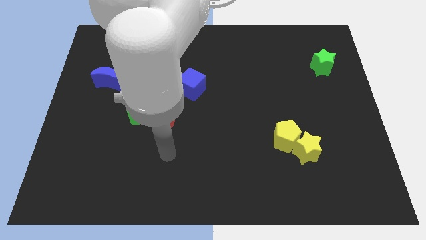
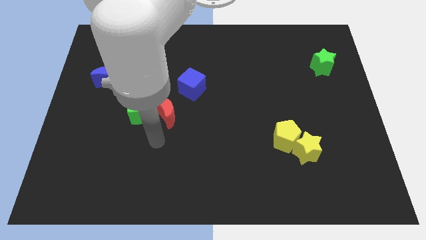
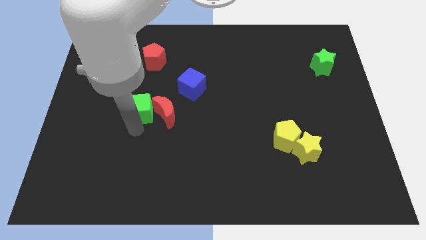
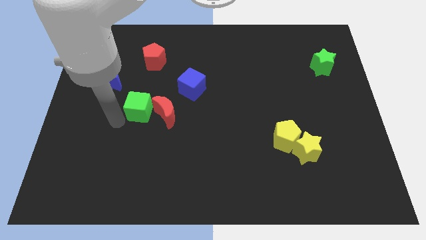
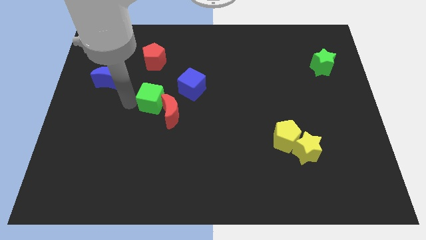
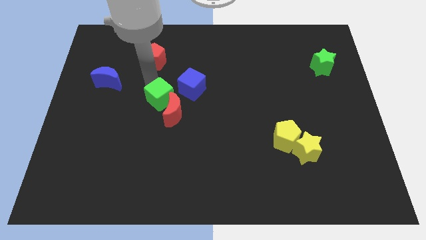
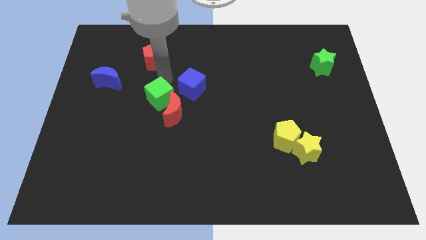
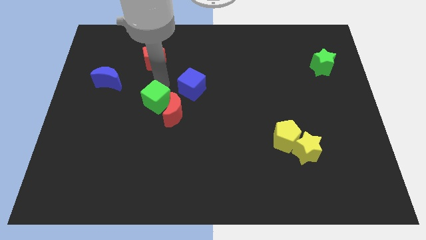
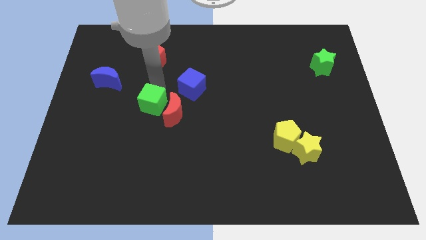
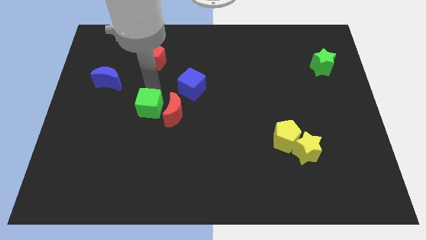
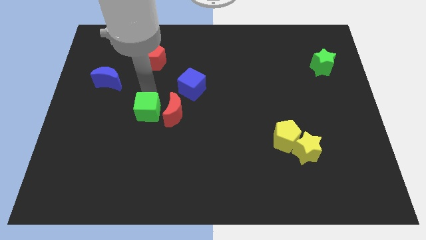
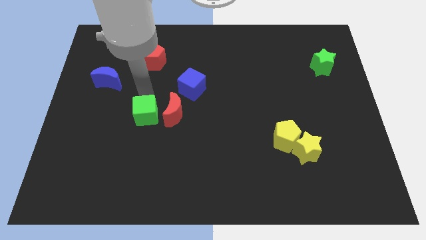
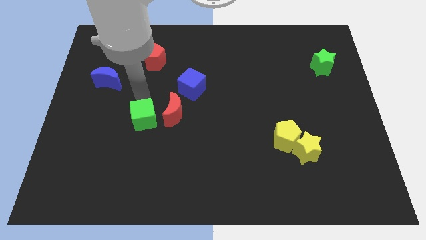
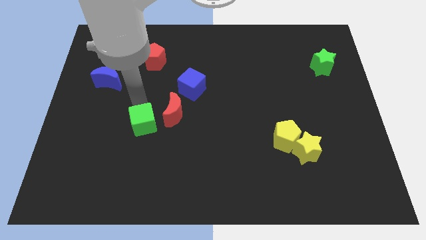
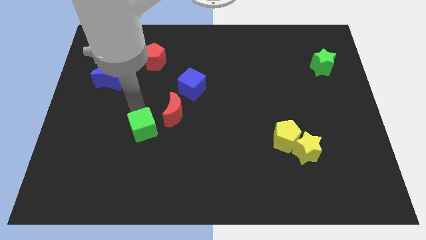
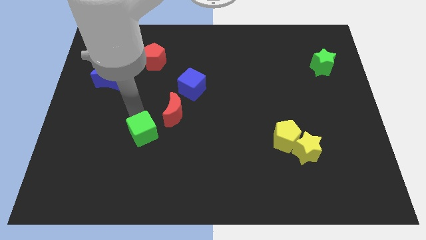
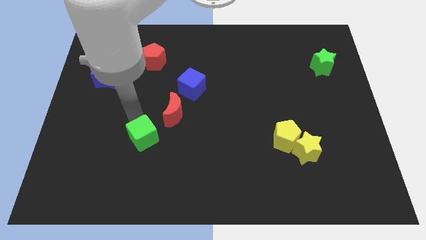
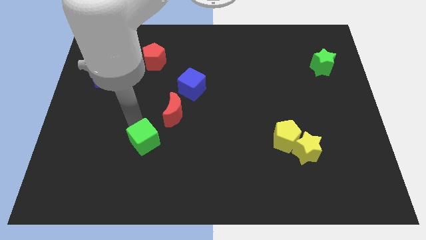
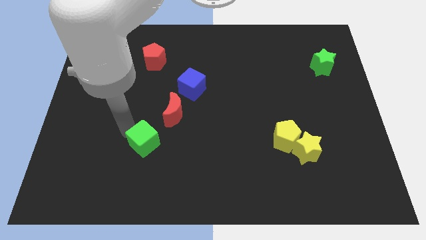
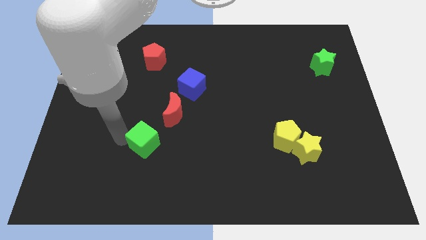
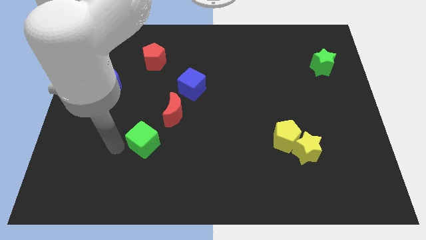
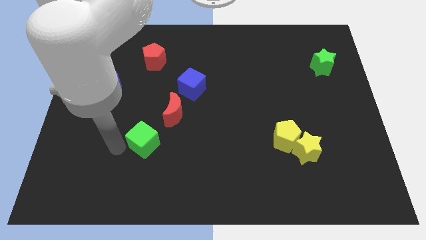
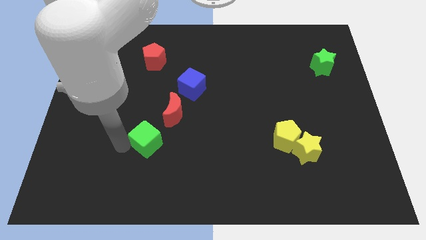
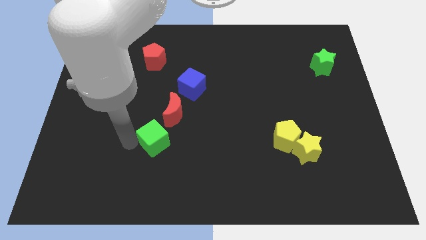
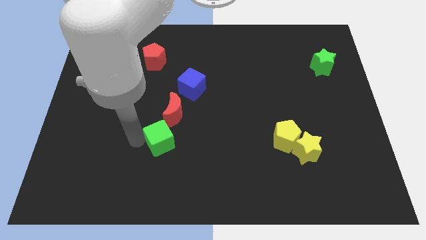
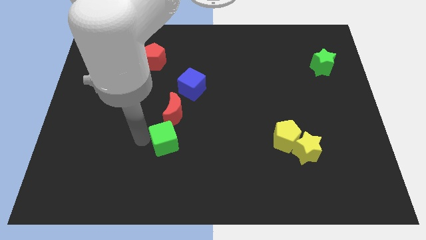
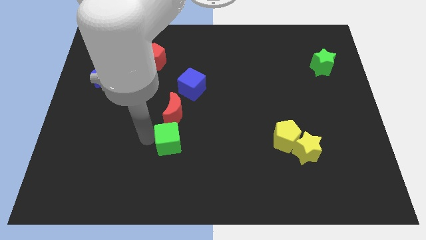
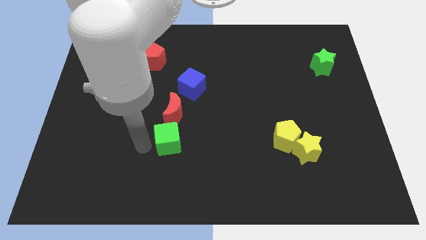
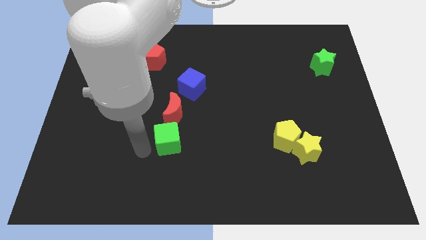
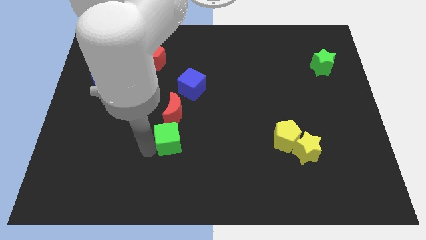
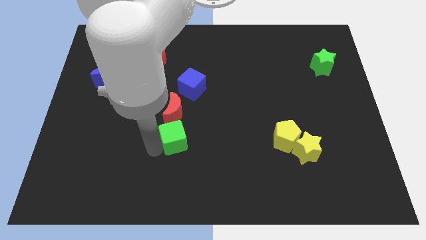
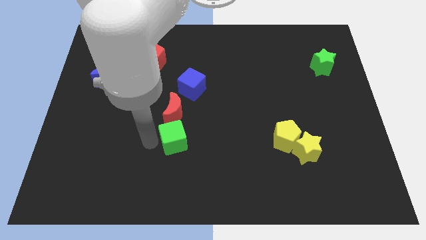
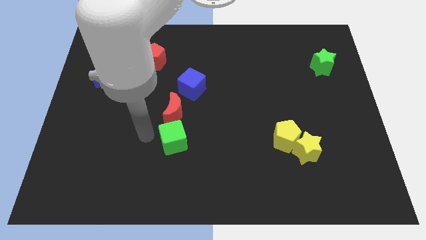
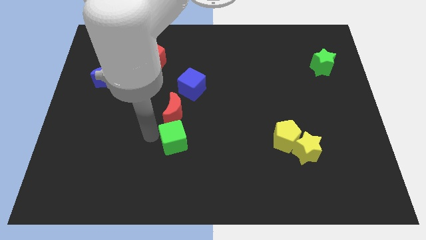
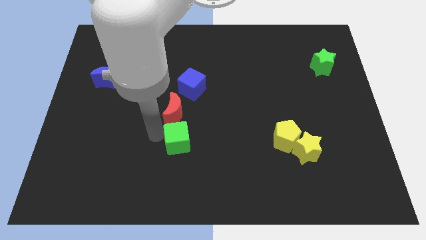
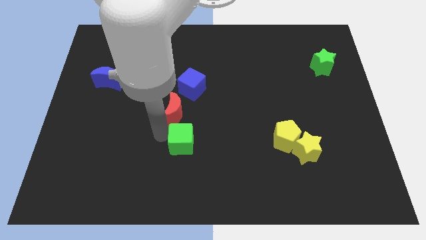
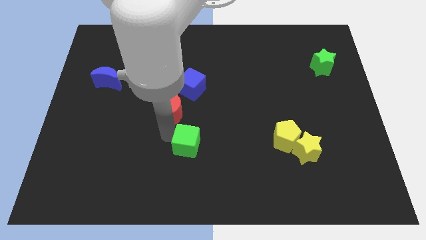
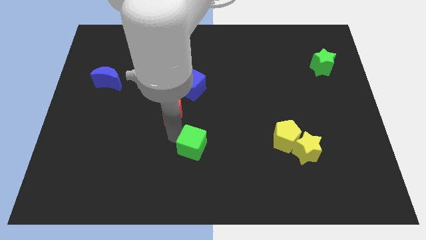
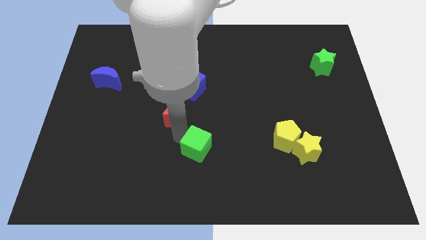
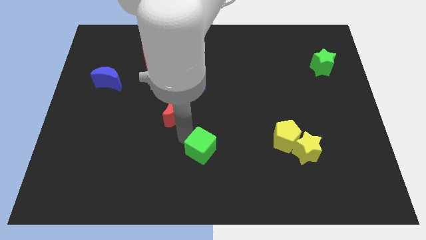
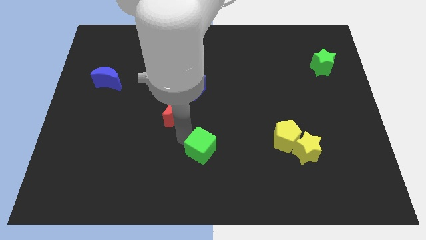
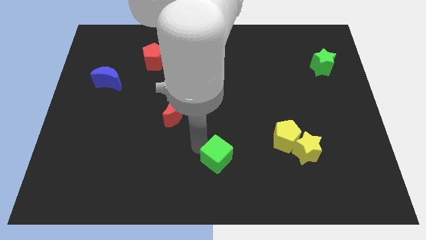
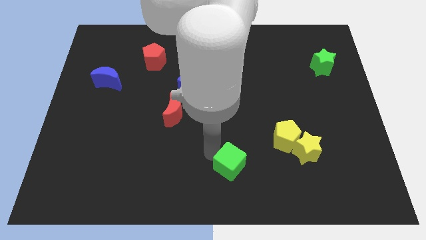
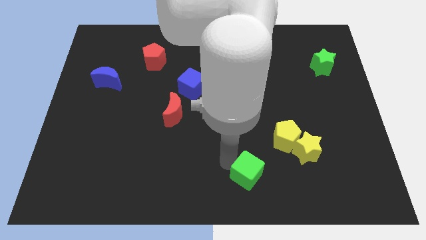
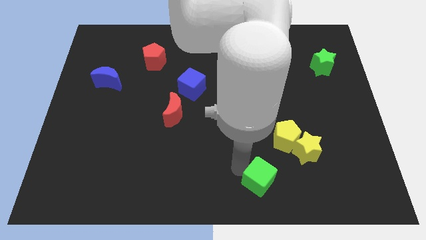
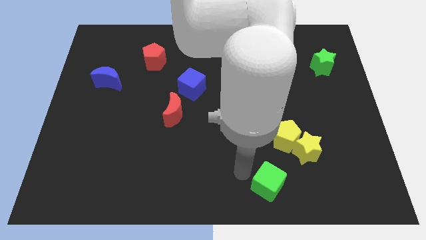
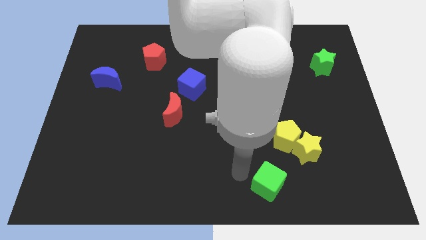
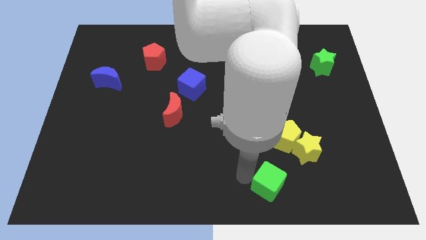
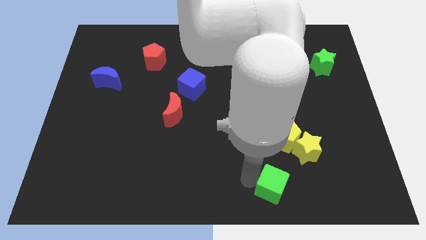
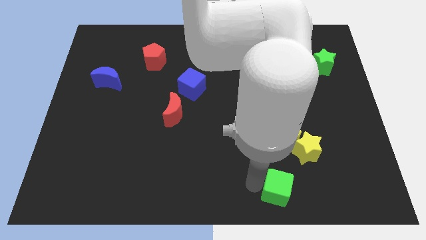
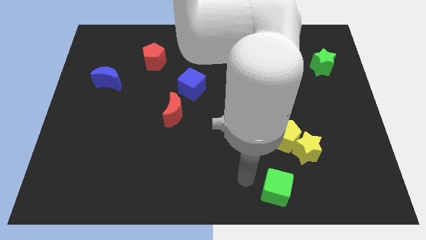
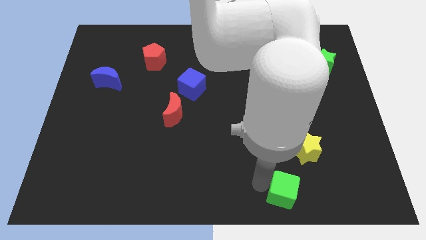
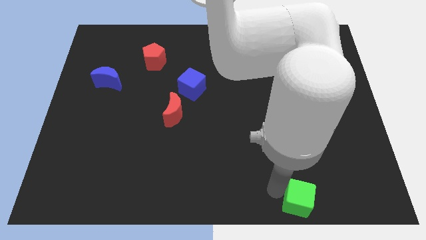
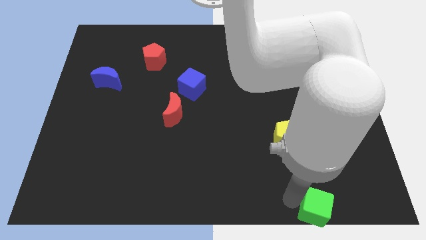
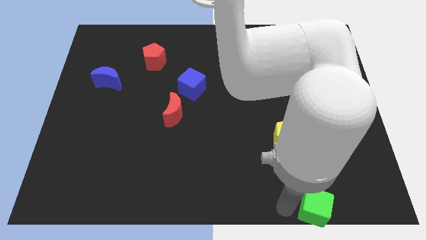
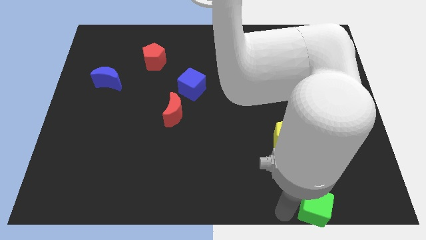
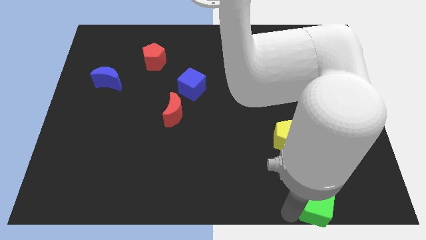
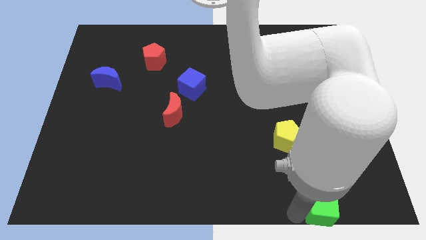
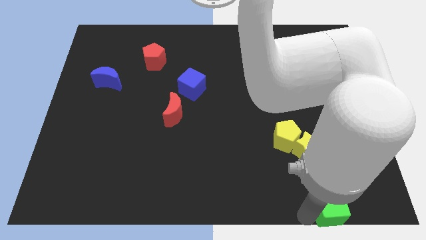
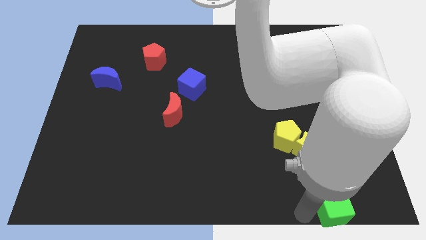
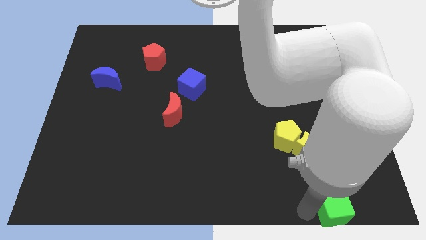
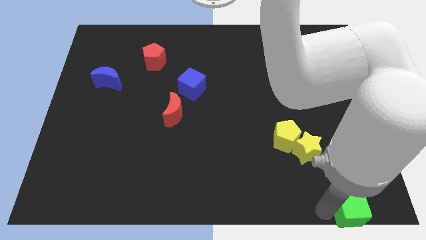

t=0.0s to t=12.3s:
slide the green cube to the bottom right corner

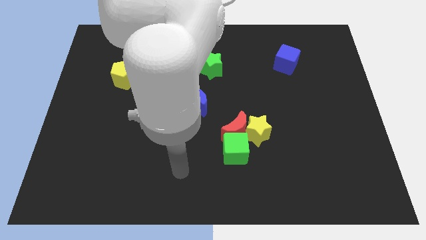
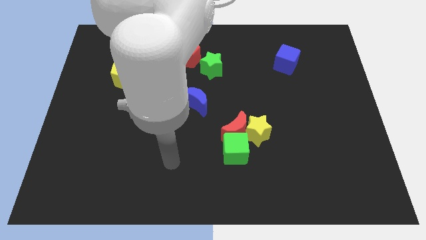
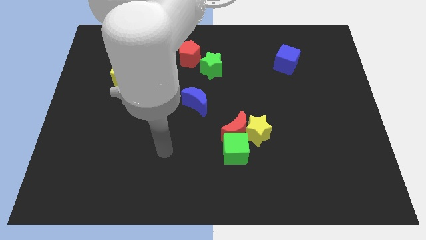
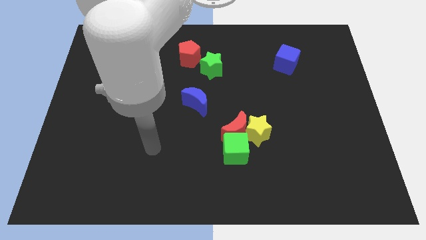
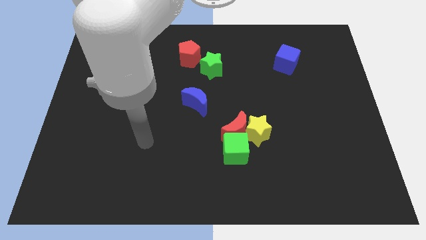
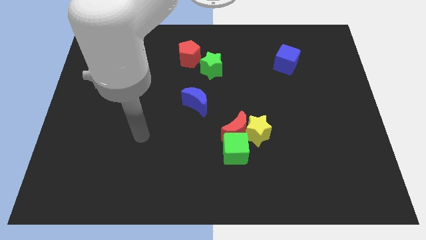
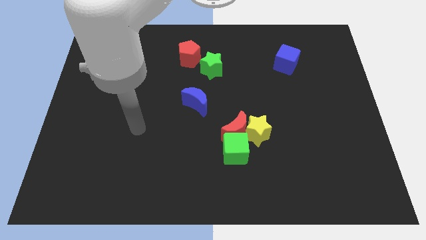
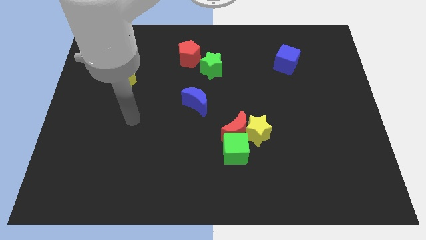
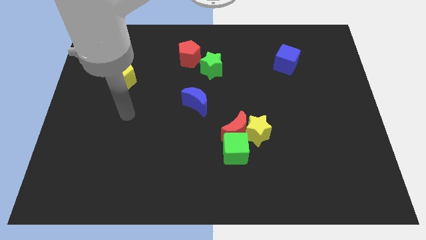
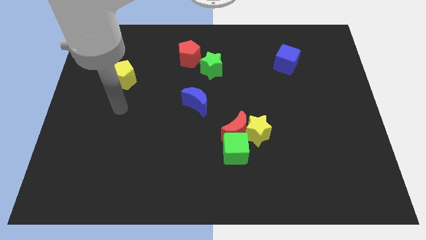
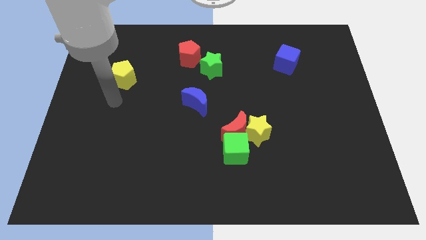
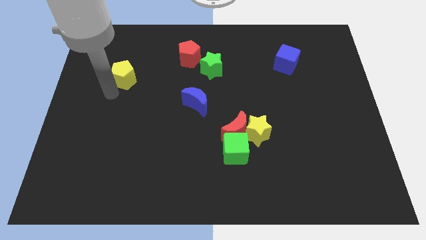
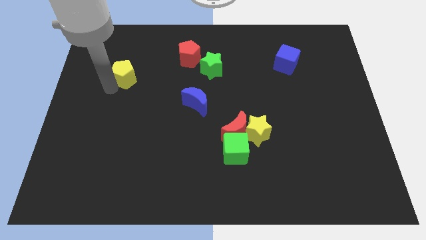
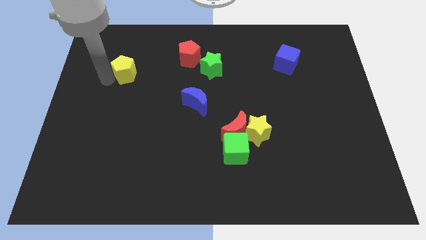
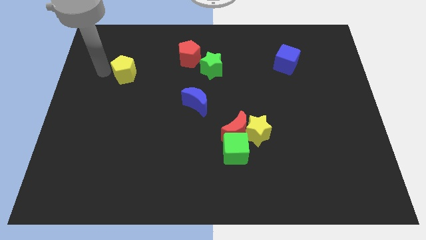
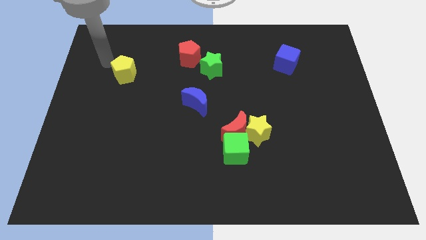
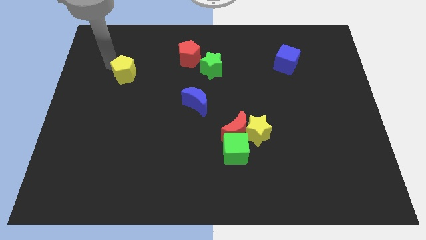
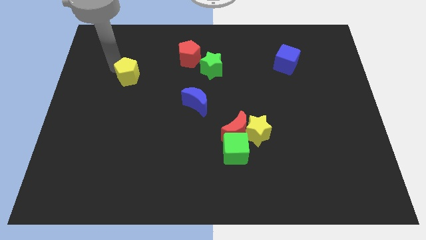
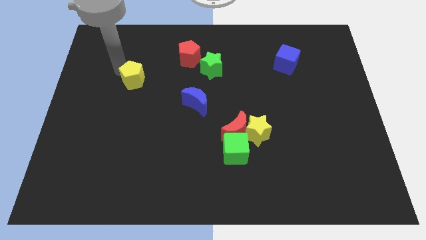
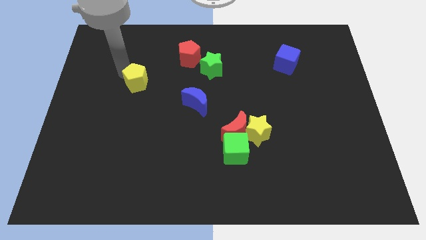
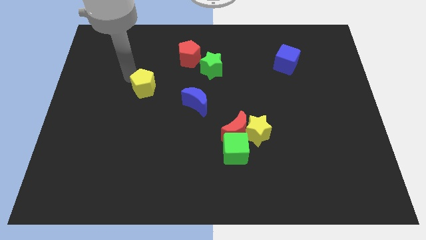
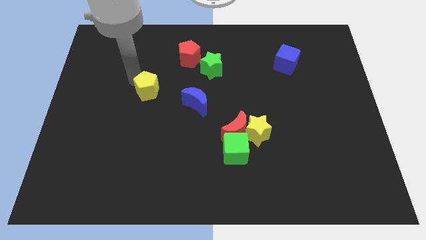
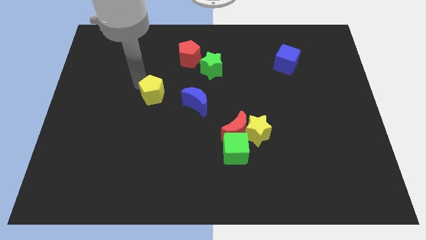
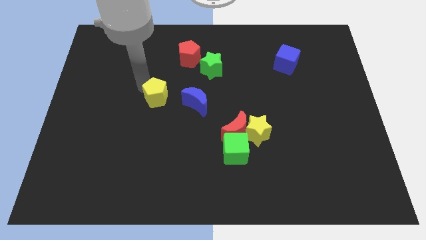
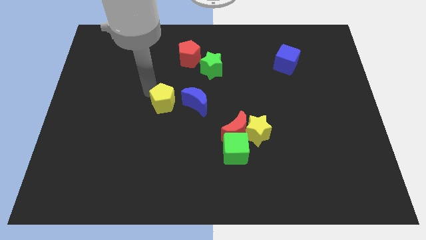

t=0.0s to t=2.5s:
put the yellow pentagon to the center of the board
